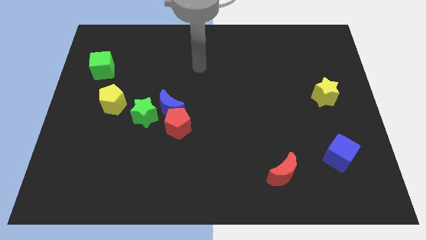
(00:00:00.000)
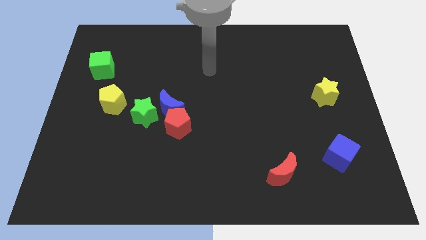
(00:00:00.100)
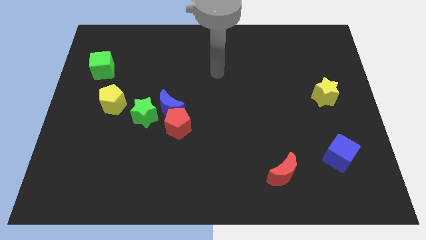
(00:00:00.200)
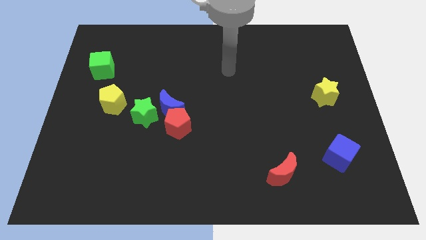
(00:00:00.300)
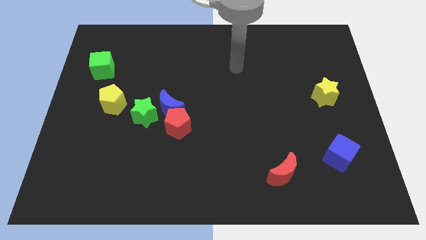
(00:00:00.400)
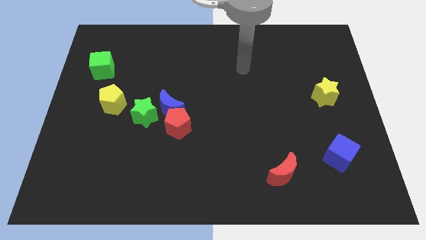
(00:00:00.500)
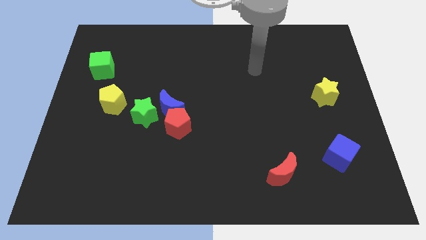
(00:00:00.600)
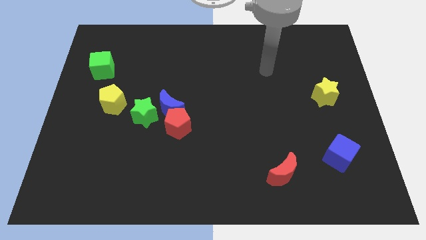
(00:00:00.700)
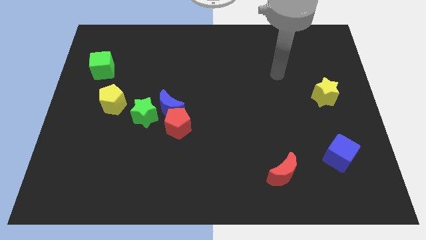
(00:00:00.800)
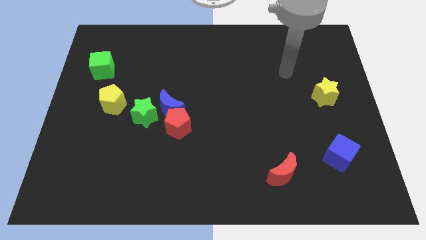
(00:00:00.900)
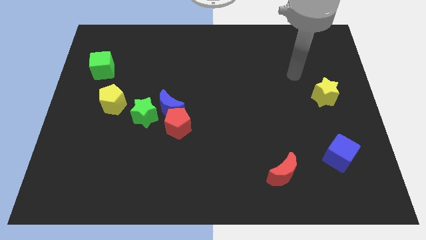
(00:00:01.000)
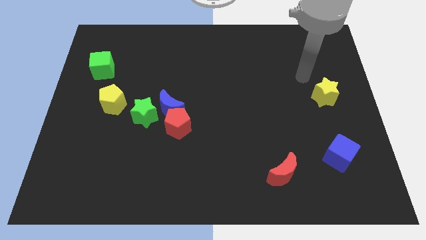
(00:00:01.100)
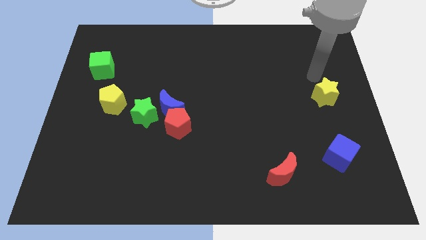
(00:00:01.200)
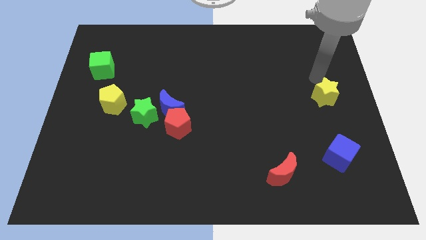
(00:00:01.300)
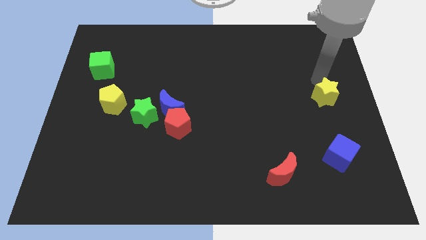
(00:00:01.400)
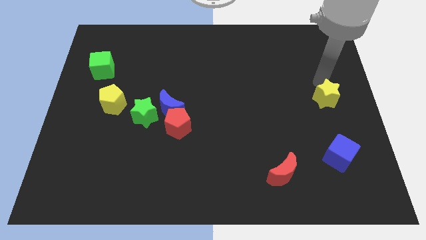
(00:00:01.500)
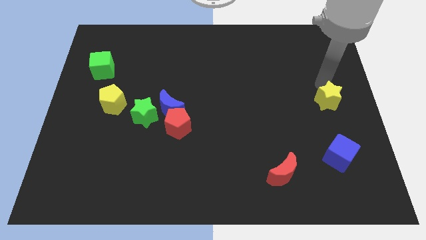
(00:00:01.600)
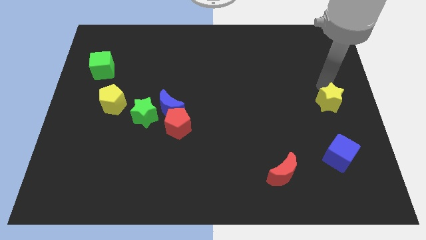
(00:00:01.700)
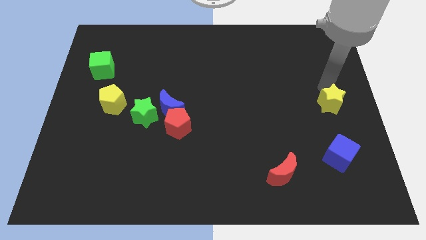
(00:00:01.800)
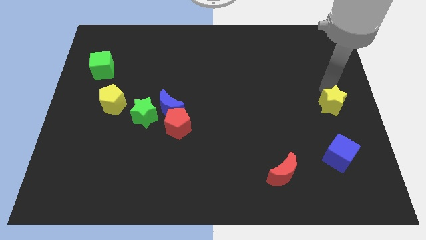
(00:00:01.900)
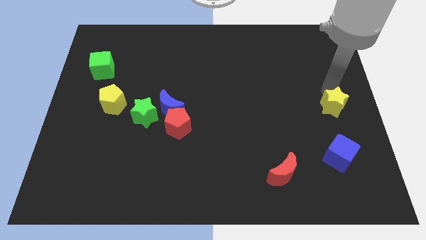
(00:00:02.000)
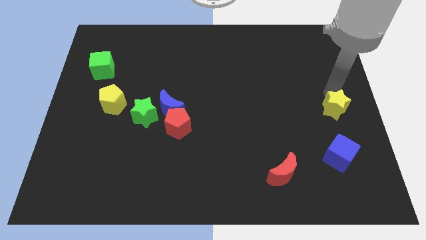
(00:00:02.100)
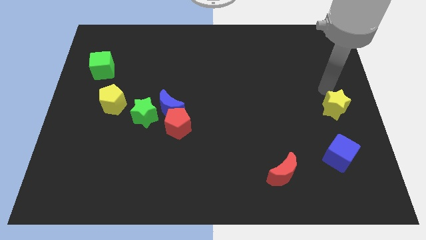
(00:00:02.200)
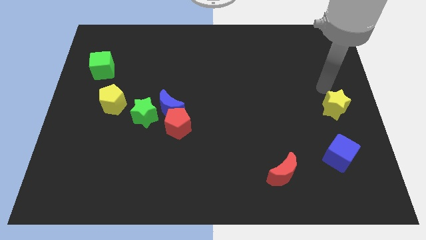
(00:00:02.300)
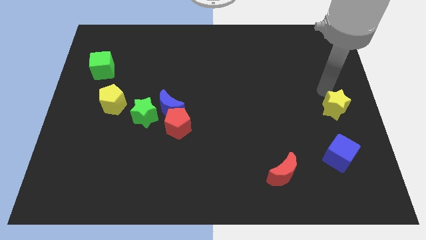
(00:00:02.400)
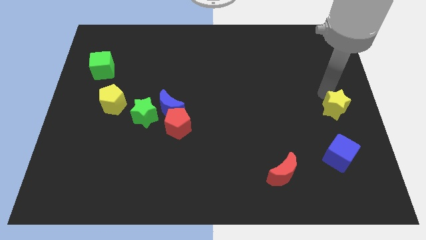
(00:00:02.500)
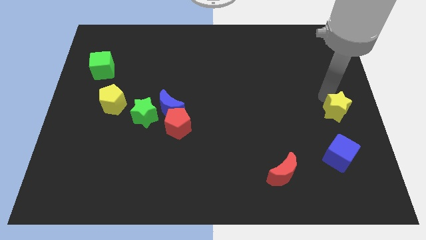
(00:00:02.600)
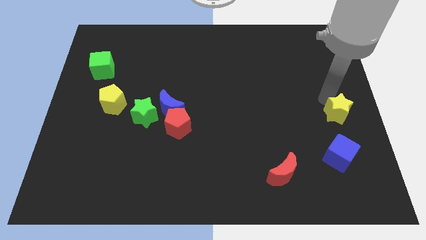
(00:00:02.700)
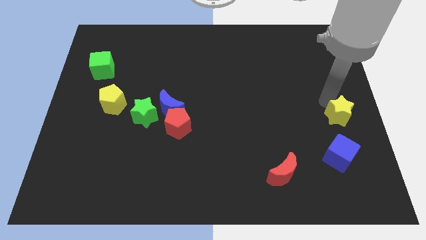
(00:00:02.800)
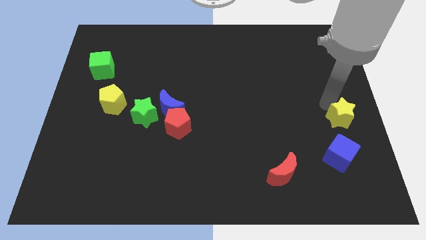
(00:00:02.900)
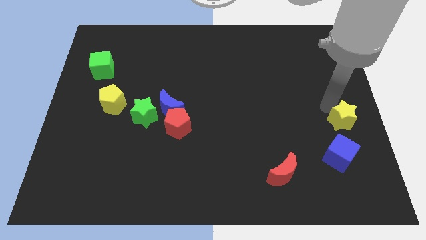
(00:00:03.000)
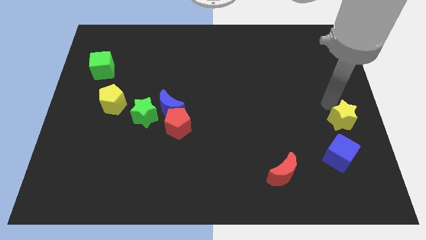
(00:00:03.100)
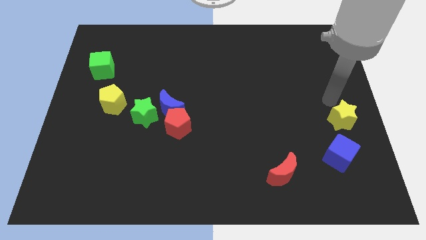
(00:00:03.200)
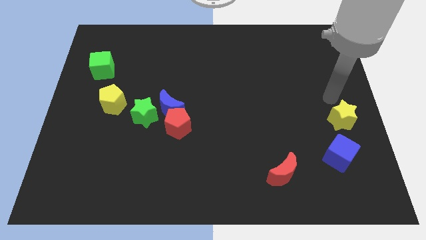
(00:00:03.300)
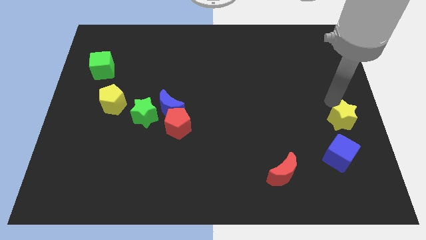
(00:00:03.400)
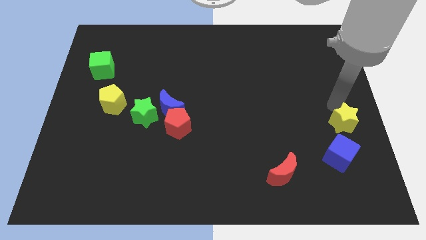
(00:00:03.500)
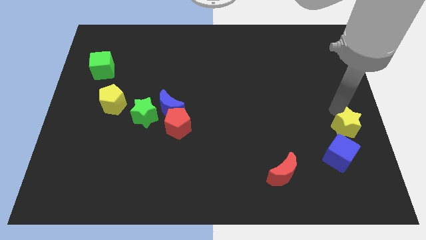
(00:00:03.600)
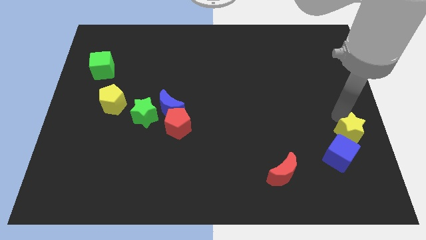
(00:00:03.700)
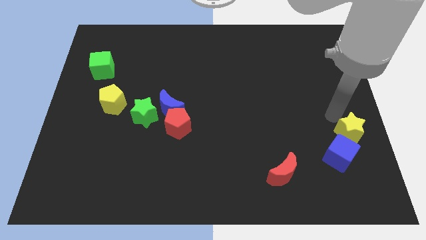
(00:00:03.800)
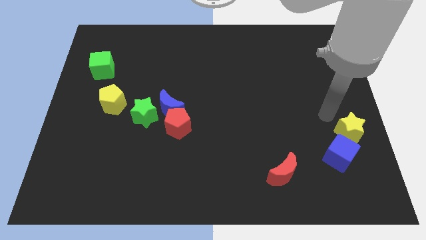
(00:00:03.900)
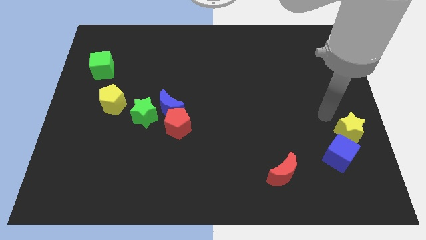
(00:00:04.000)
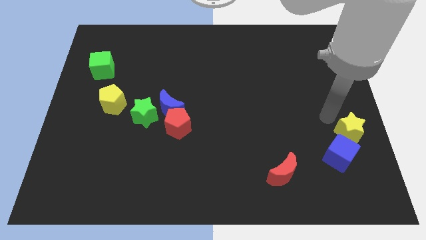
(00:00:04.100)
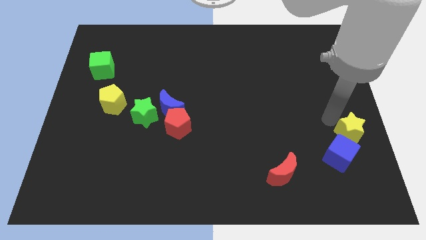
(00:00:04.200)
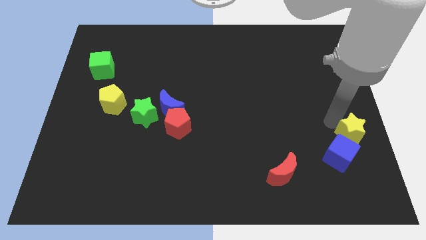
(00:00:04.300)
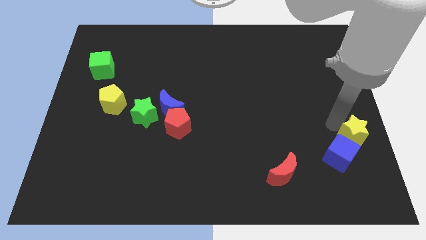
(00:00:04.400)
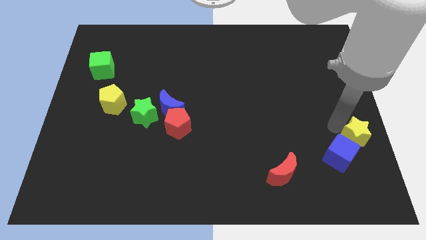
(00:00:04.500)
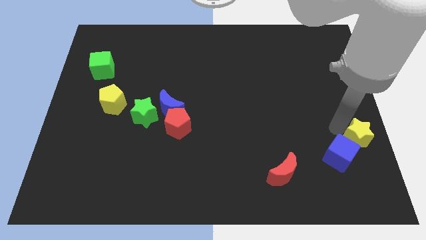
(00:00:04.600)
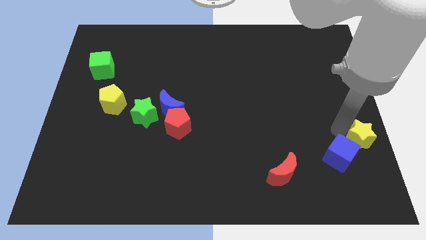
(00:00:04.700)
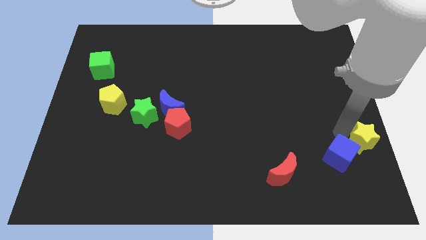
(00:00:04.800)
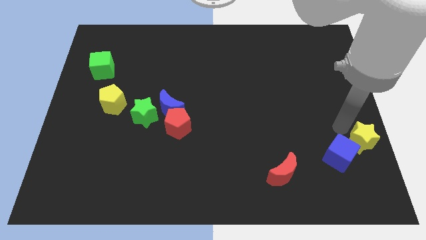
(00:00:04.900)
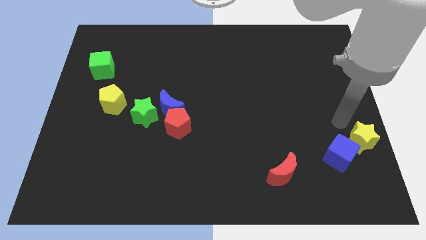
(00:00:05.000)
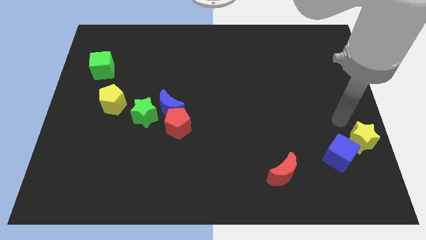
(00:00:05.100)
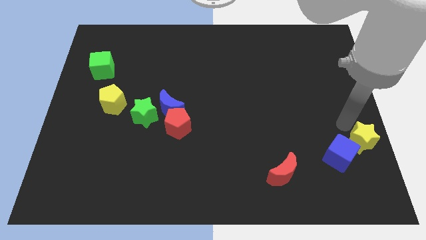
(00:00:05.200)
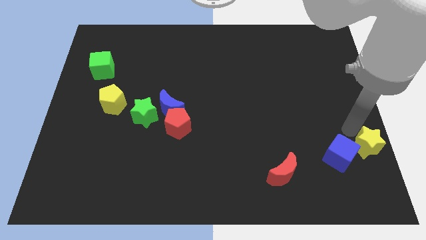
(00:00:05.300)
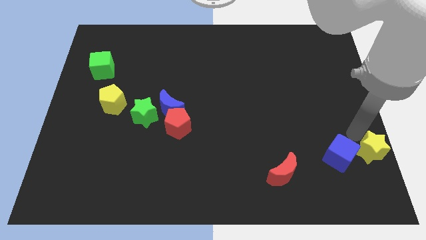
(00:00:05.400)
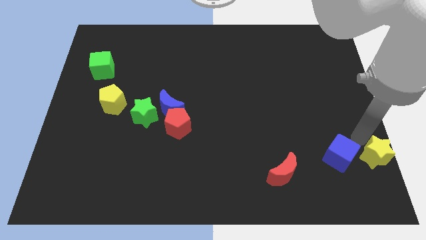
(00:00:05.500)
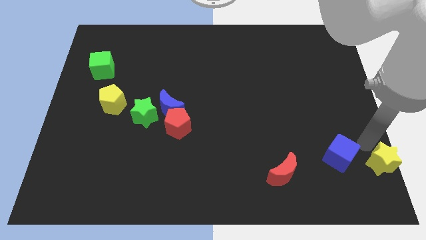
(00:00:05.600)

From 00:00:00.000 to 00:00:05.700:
push the yellow star to the bottom right

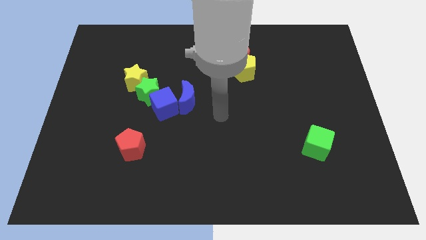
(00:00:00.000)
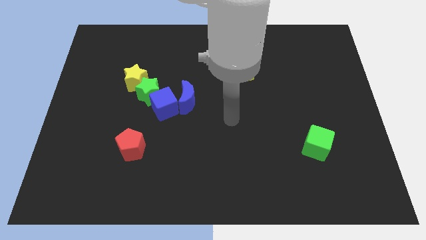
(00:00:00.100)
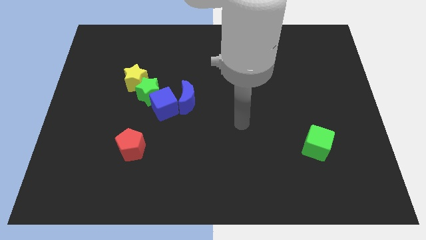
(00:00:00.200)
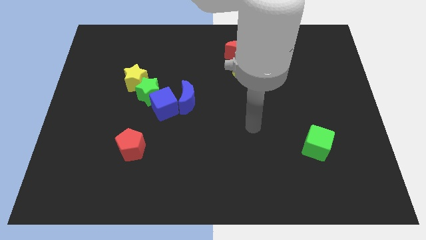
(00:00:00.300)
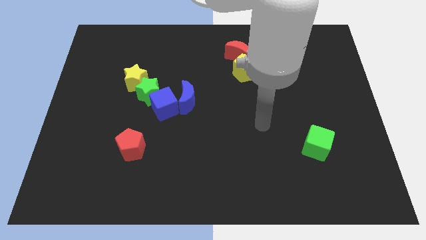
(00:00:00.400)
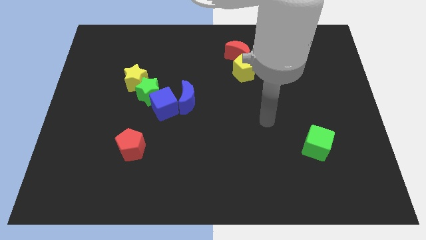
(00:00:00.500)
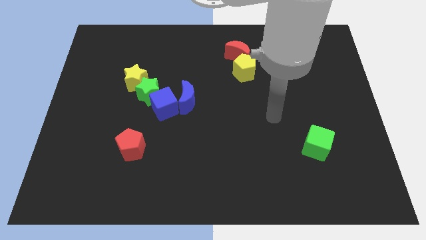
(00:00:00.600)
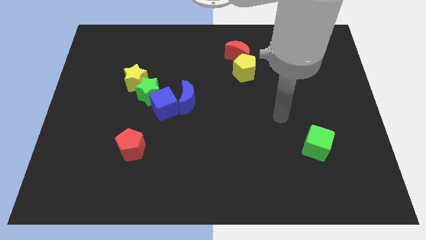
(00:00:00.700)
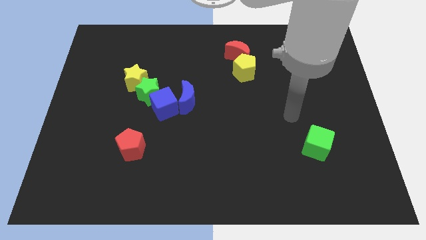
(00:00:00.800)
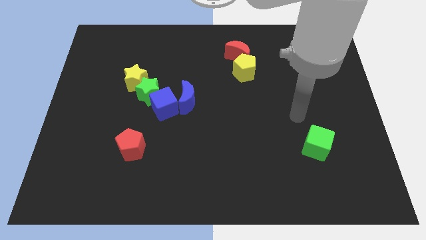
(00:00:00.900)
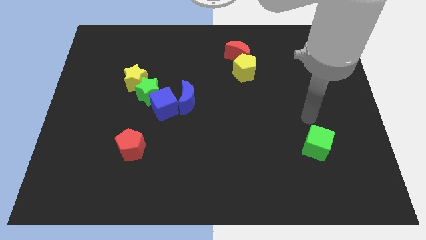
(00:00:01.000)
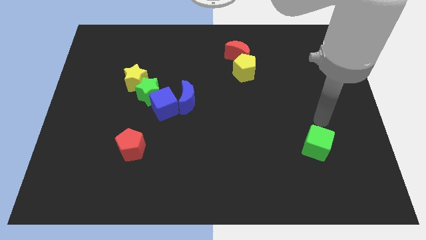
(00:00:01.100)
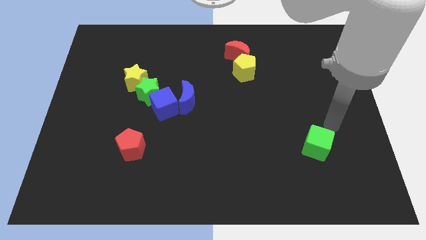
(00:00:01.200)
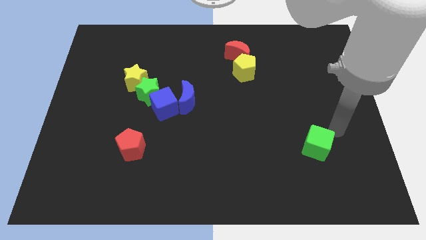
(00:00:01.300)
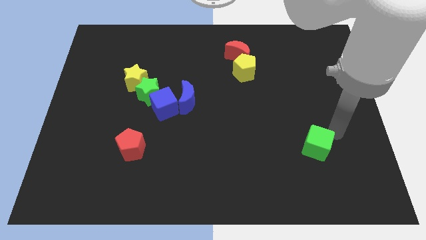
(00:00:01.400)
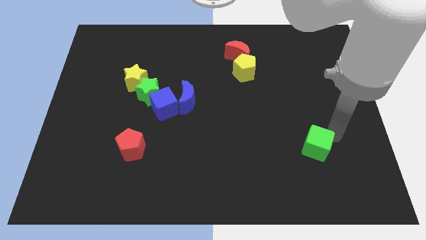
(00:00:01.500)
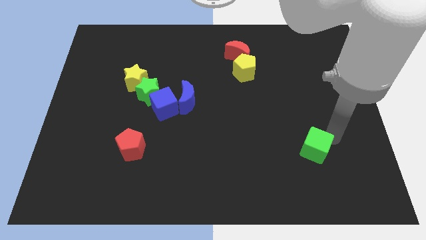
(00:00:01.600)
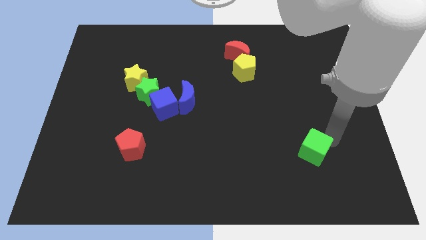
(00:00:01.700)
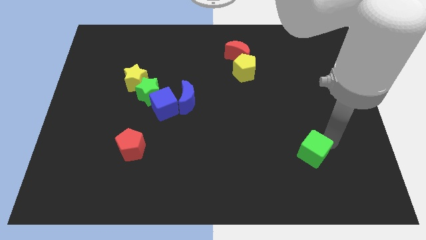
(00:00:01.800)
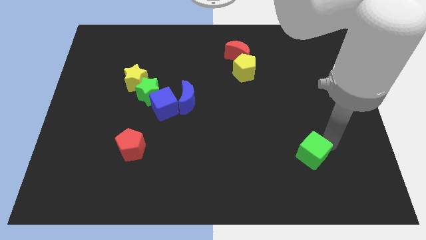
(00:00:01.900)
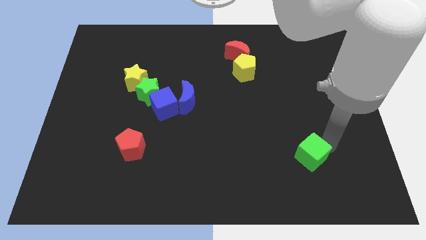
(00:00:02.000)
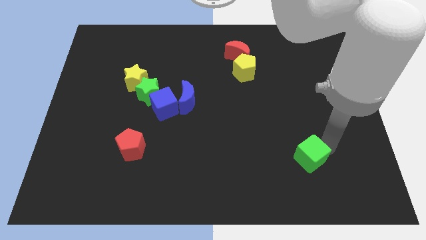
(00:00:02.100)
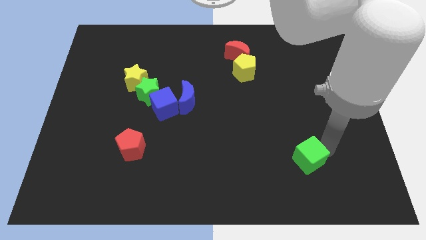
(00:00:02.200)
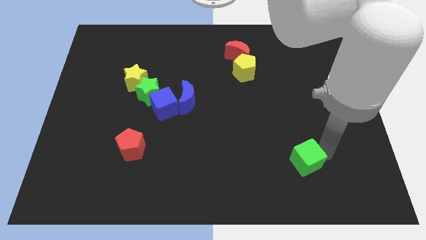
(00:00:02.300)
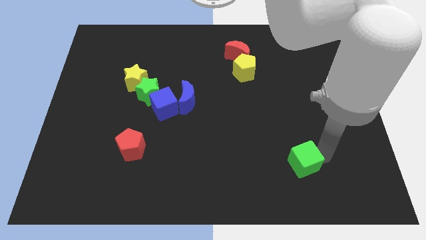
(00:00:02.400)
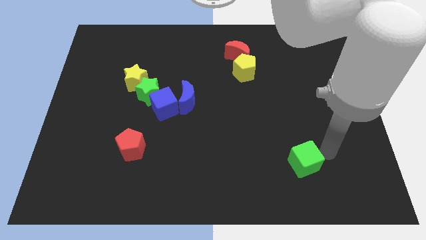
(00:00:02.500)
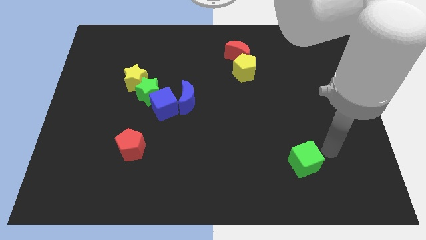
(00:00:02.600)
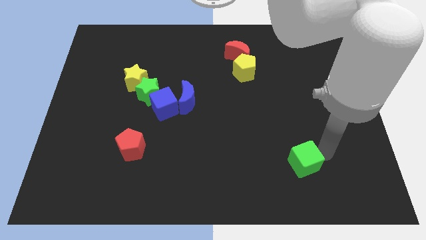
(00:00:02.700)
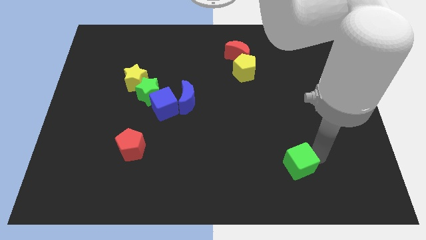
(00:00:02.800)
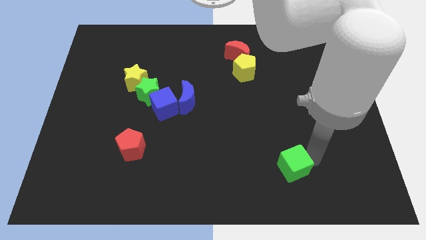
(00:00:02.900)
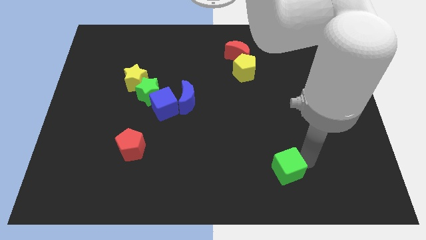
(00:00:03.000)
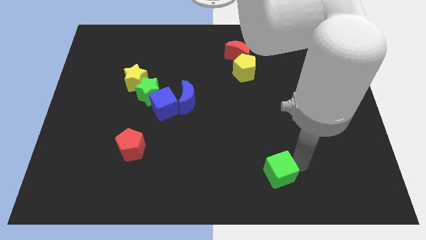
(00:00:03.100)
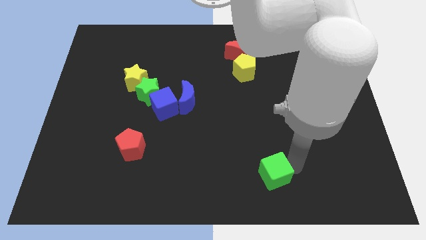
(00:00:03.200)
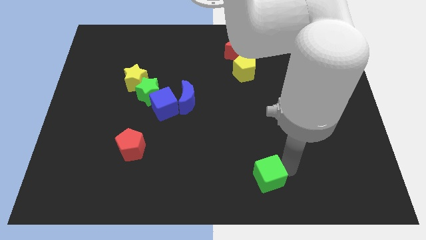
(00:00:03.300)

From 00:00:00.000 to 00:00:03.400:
push the green cube to the bottom side
